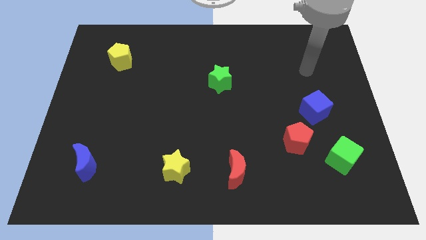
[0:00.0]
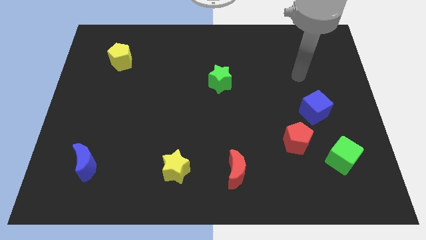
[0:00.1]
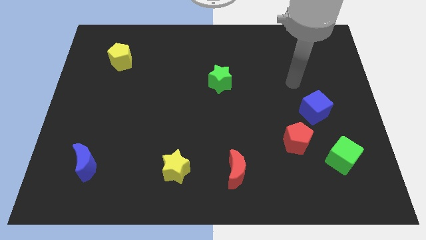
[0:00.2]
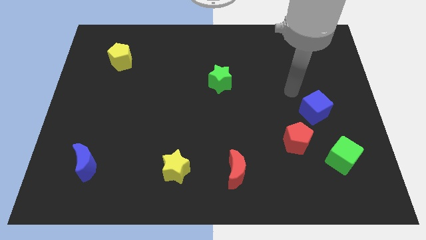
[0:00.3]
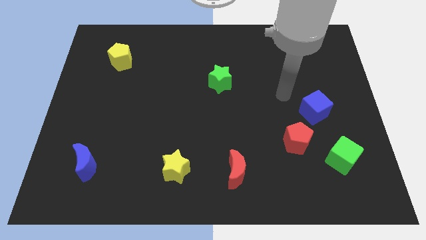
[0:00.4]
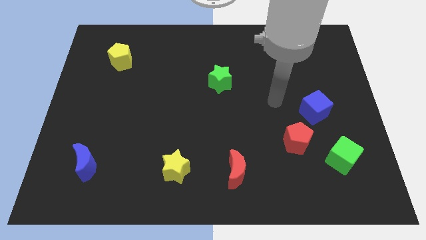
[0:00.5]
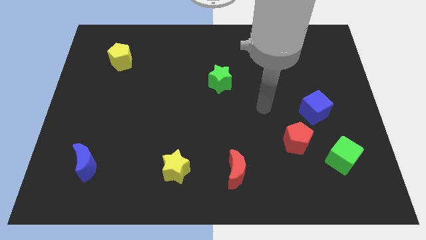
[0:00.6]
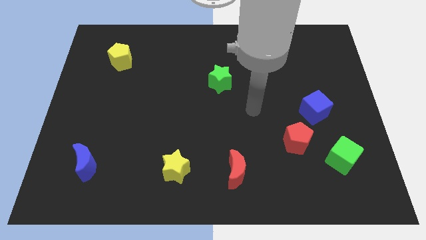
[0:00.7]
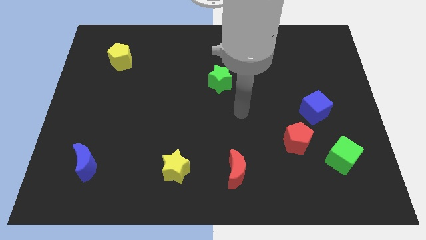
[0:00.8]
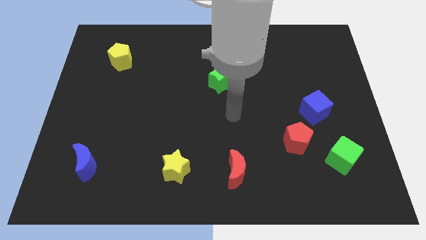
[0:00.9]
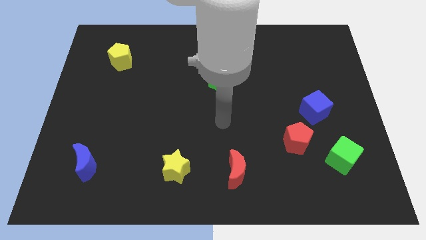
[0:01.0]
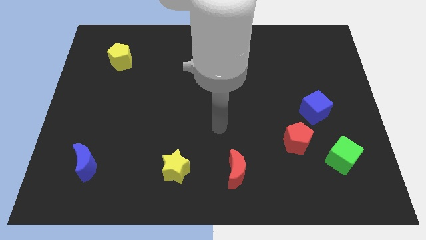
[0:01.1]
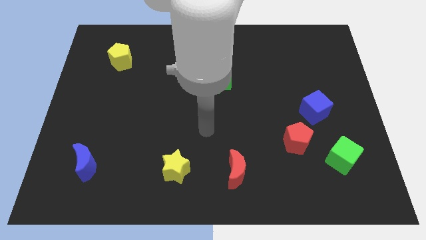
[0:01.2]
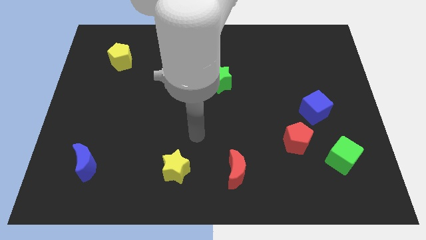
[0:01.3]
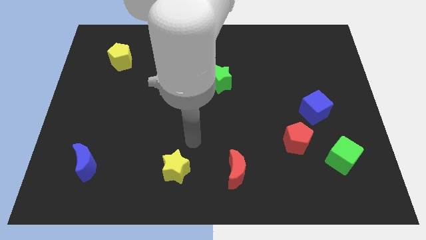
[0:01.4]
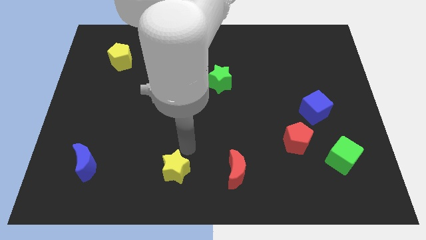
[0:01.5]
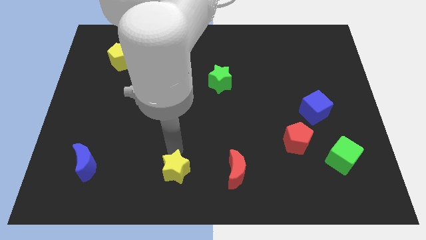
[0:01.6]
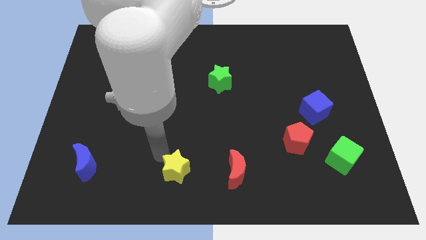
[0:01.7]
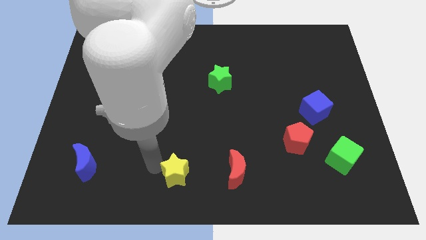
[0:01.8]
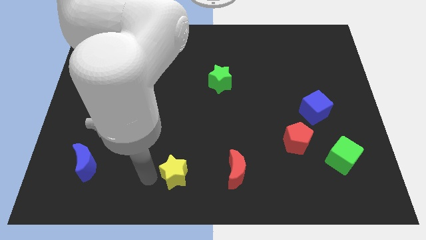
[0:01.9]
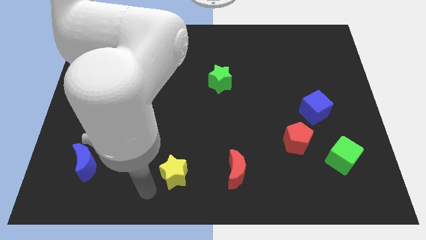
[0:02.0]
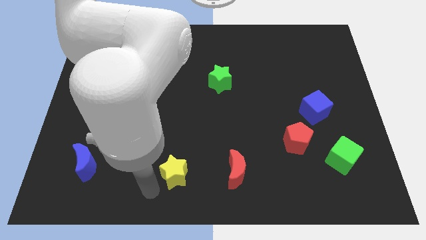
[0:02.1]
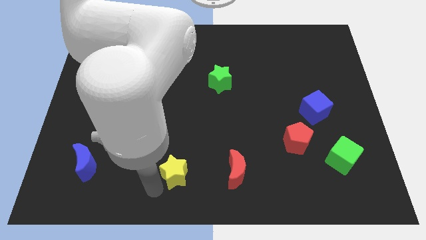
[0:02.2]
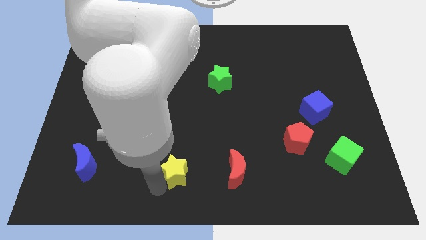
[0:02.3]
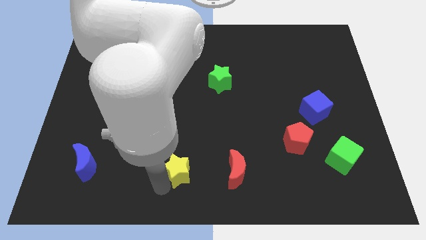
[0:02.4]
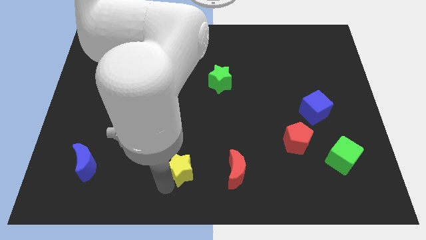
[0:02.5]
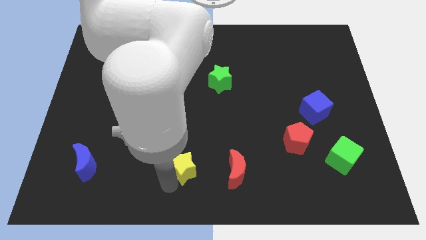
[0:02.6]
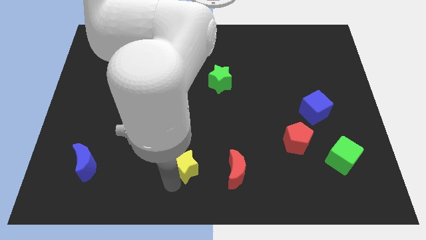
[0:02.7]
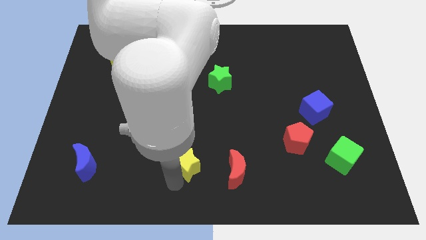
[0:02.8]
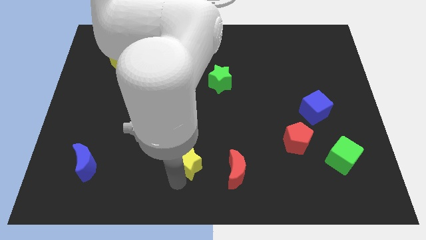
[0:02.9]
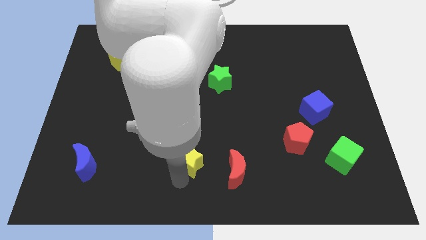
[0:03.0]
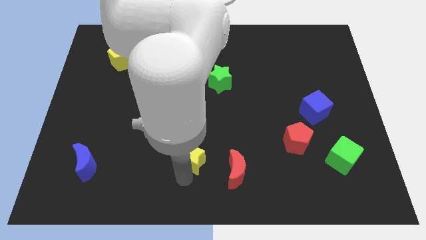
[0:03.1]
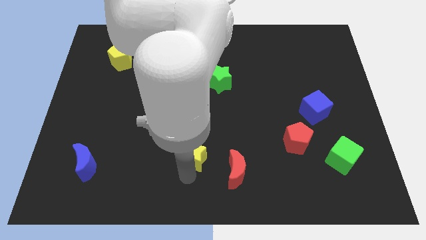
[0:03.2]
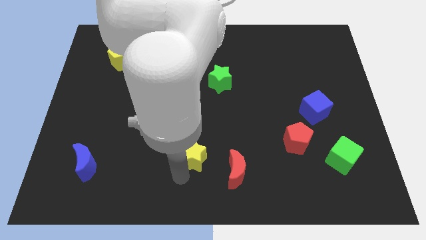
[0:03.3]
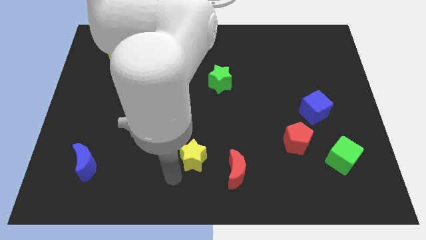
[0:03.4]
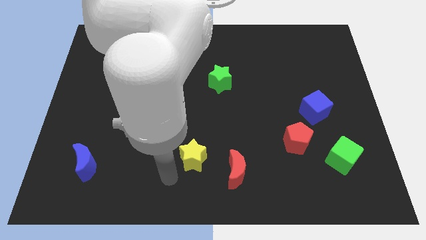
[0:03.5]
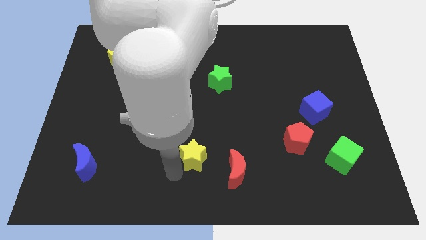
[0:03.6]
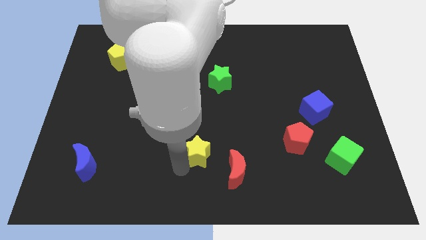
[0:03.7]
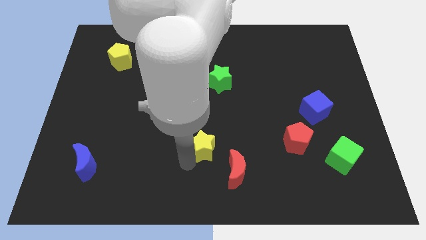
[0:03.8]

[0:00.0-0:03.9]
move the yellow star upwards and to the right diagonally slightly

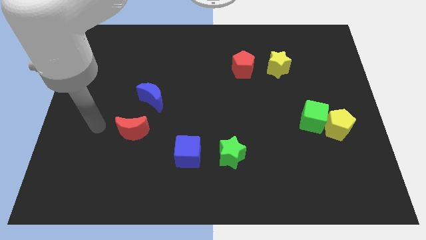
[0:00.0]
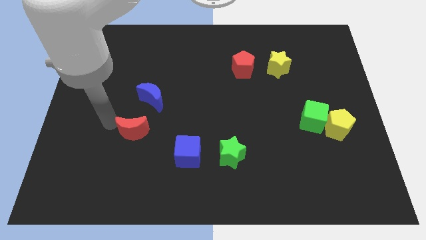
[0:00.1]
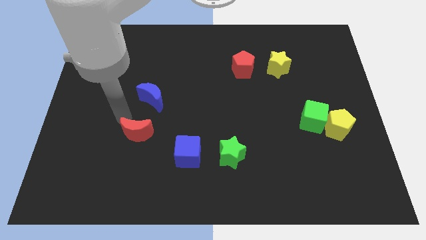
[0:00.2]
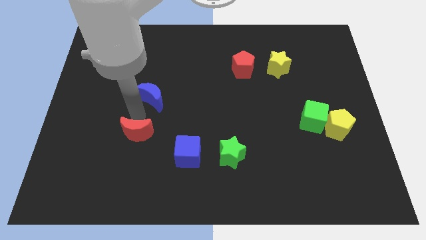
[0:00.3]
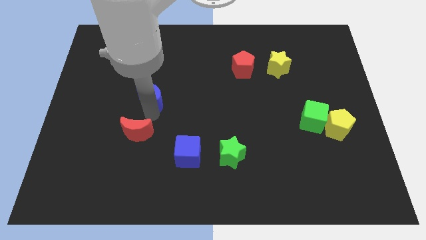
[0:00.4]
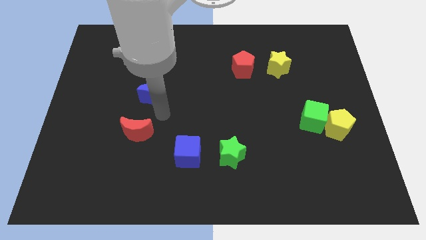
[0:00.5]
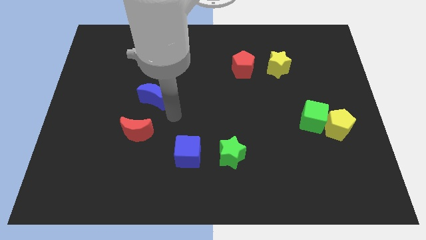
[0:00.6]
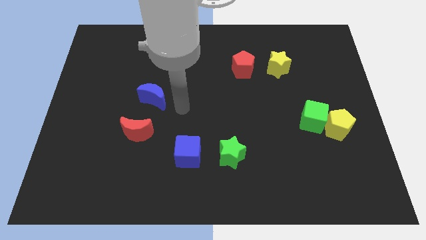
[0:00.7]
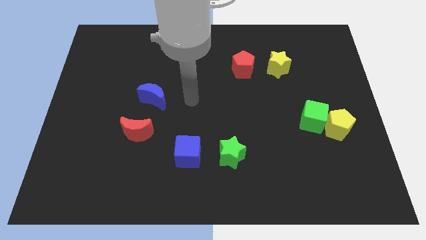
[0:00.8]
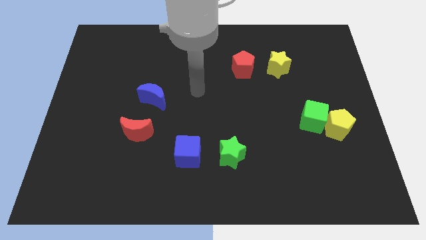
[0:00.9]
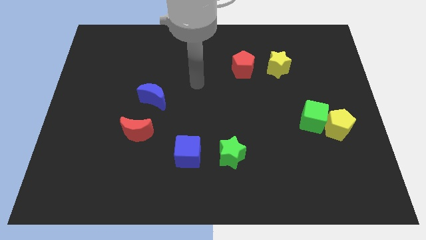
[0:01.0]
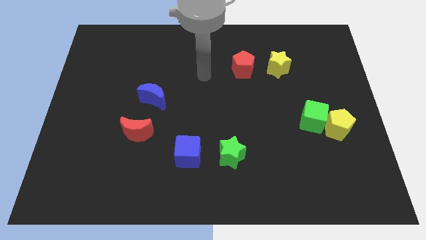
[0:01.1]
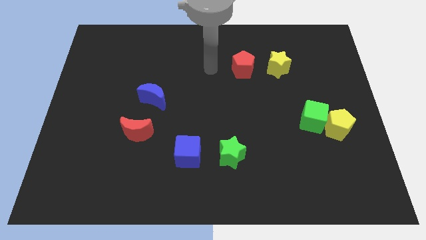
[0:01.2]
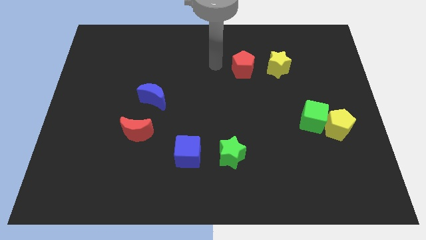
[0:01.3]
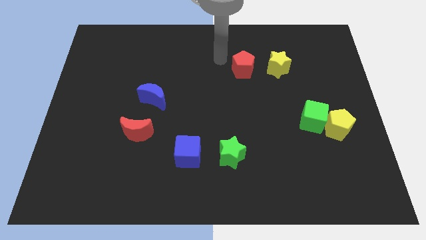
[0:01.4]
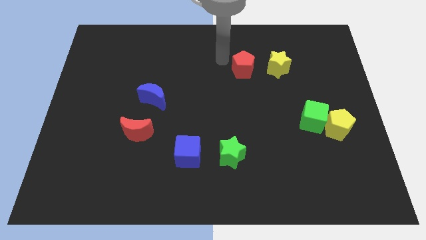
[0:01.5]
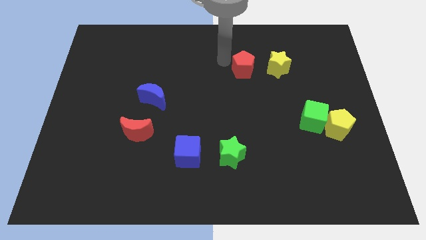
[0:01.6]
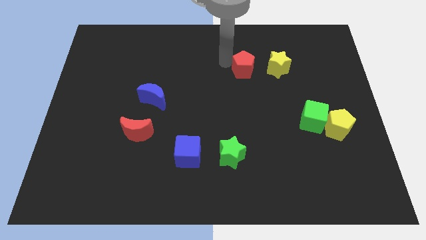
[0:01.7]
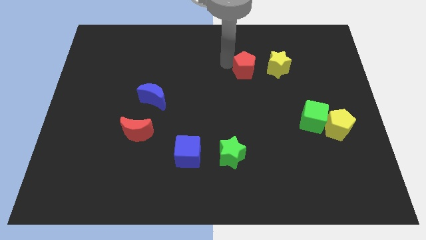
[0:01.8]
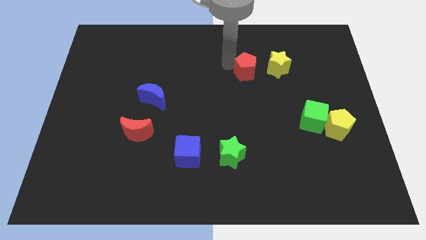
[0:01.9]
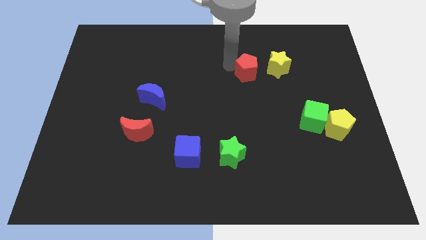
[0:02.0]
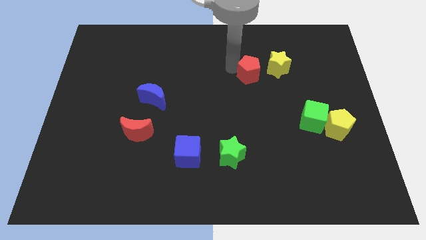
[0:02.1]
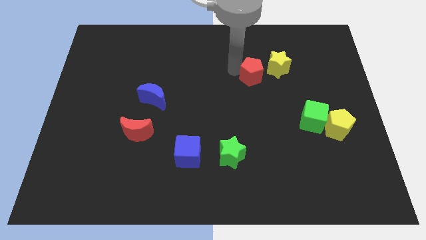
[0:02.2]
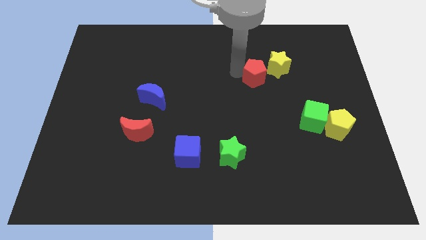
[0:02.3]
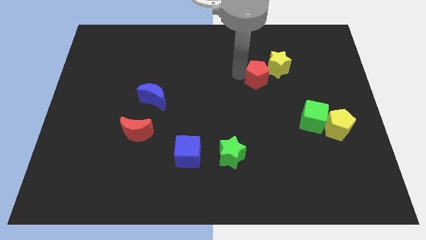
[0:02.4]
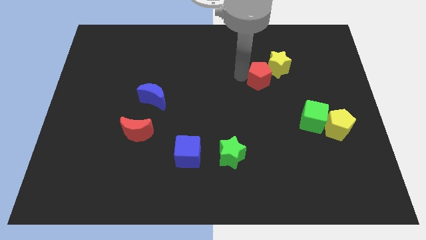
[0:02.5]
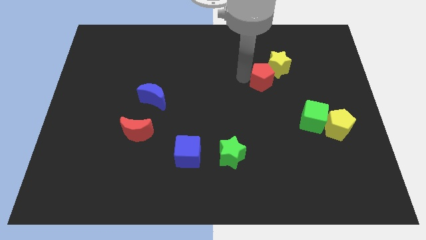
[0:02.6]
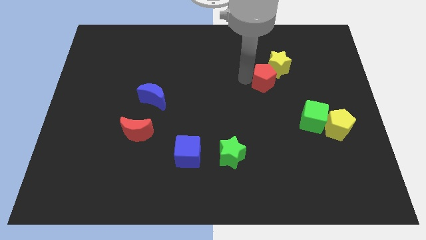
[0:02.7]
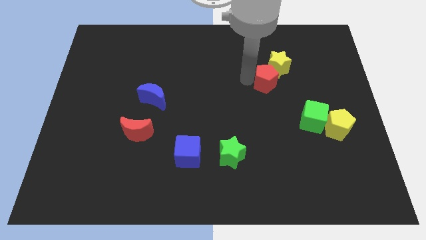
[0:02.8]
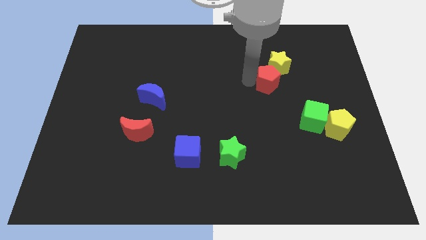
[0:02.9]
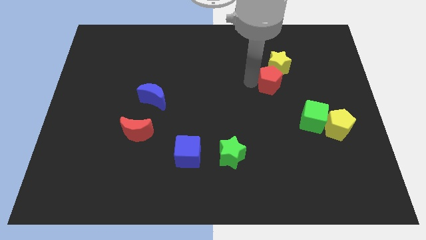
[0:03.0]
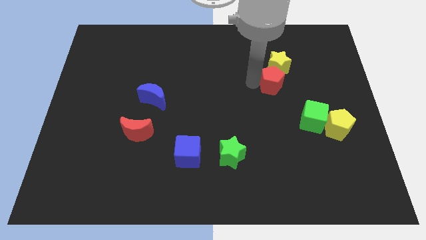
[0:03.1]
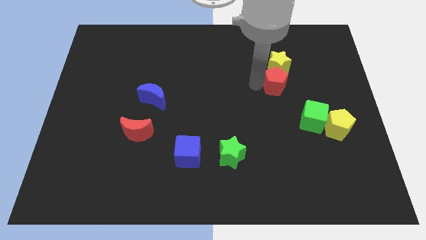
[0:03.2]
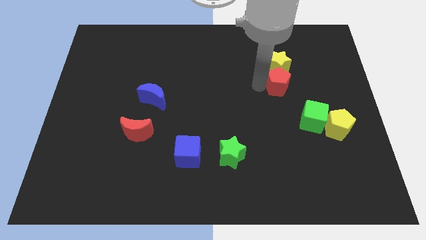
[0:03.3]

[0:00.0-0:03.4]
slightly slide the red pentagon to the right

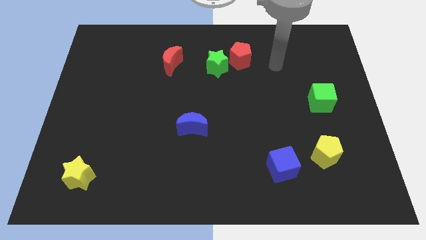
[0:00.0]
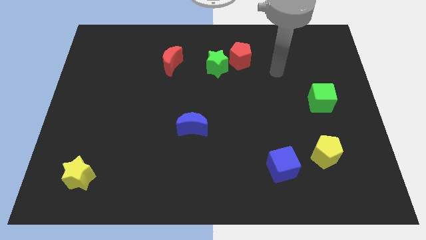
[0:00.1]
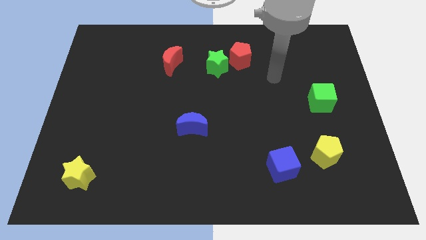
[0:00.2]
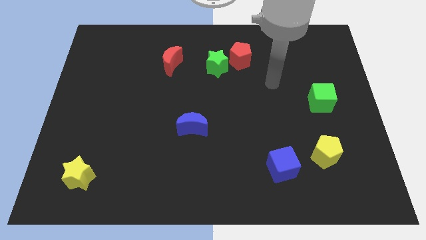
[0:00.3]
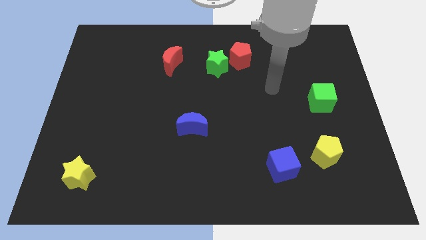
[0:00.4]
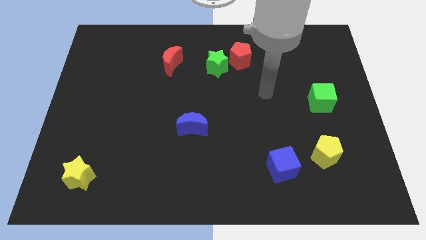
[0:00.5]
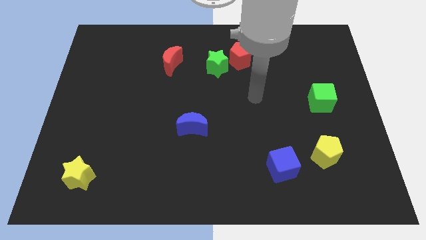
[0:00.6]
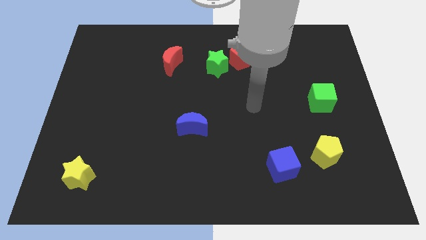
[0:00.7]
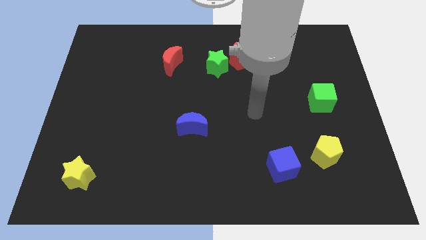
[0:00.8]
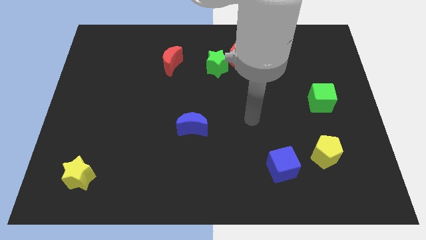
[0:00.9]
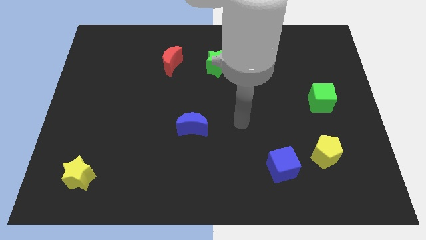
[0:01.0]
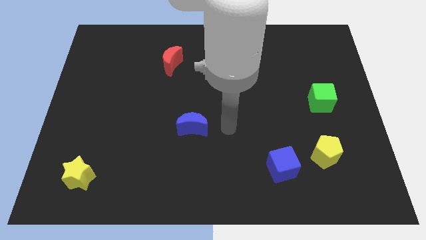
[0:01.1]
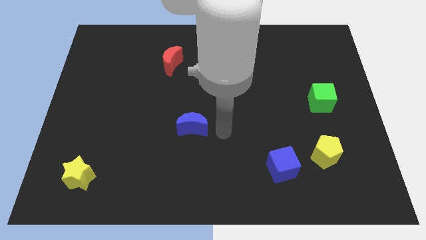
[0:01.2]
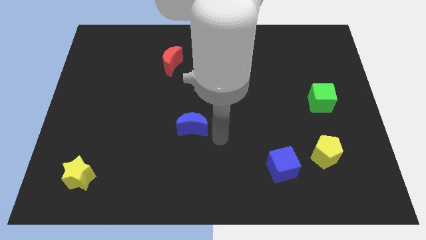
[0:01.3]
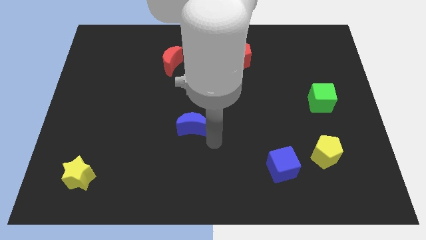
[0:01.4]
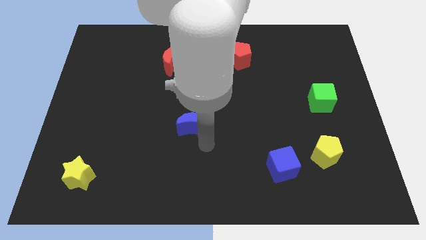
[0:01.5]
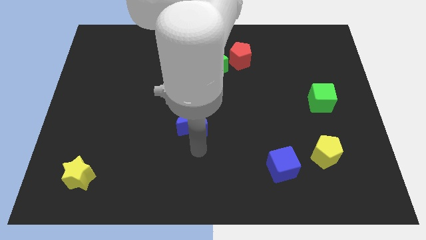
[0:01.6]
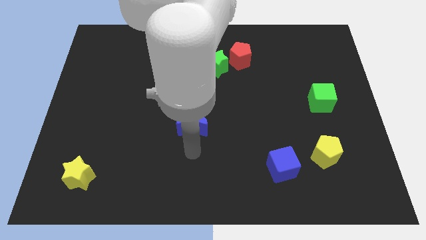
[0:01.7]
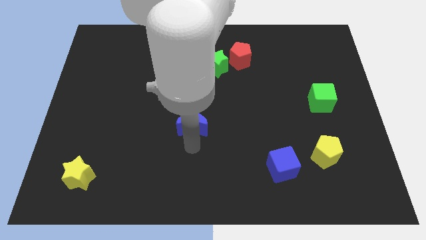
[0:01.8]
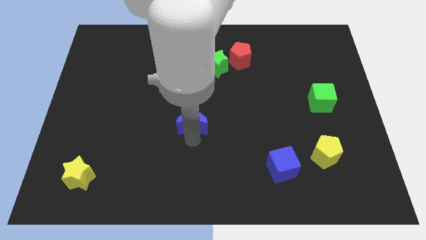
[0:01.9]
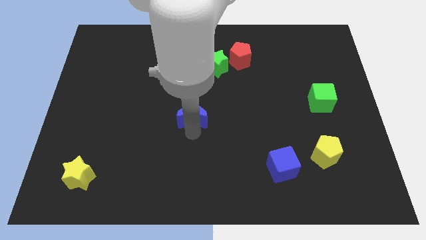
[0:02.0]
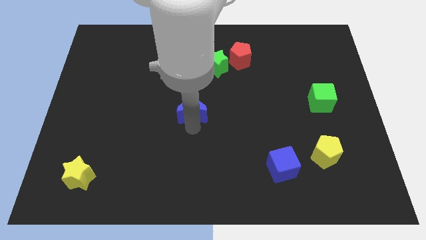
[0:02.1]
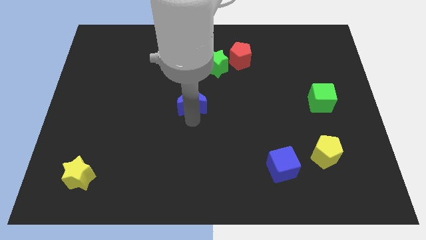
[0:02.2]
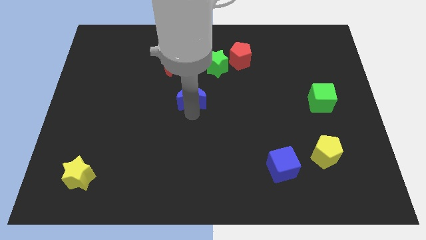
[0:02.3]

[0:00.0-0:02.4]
slide the blue moon upwards a little bit
